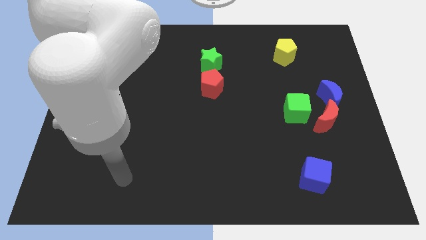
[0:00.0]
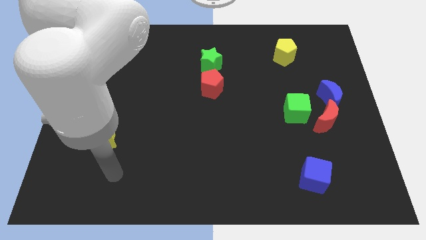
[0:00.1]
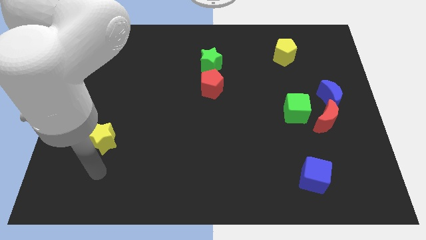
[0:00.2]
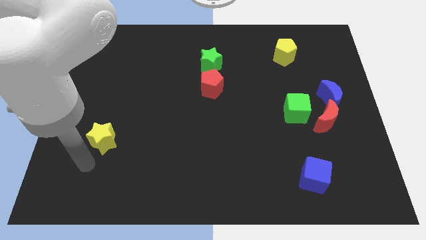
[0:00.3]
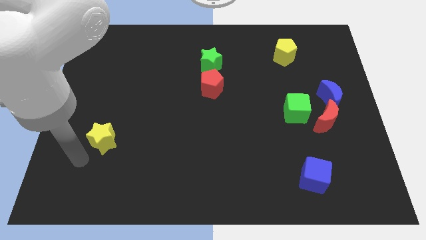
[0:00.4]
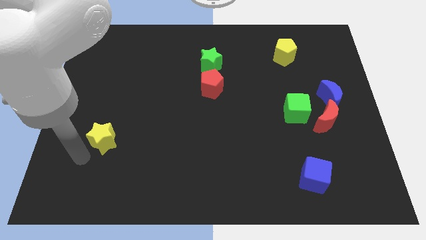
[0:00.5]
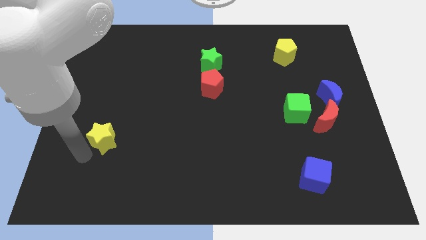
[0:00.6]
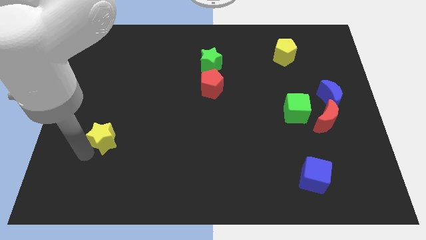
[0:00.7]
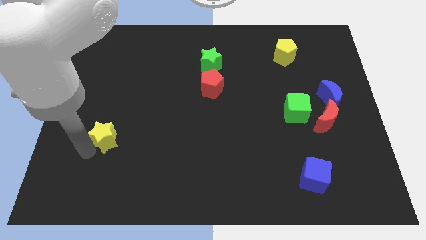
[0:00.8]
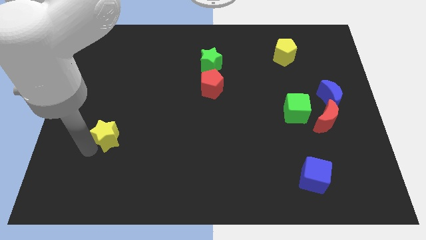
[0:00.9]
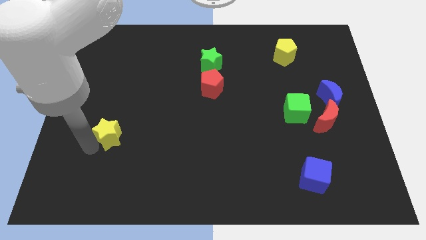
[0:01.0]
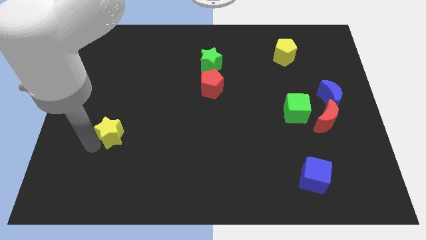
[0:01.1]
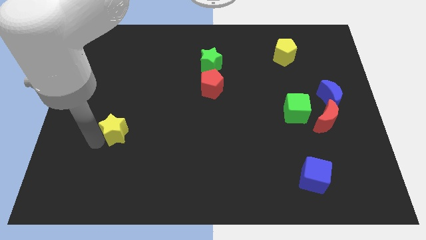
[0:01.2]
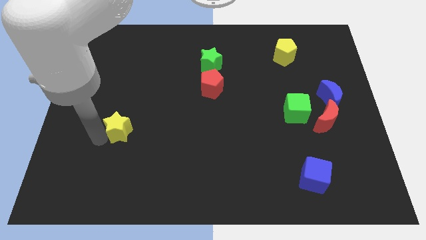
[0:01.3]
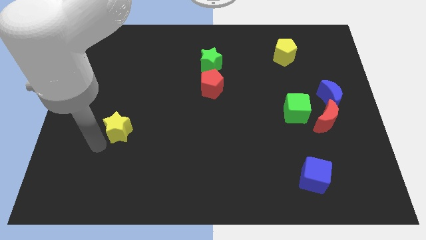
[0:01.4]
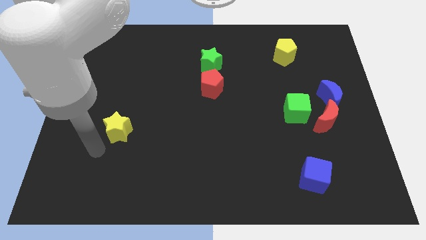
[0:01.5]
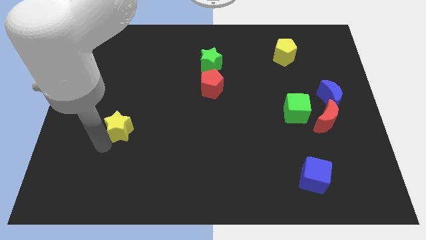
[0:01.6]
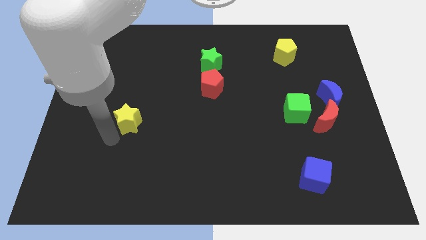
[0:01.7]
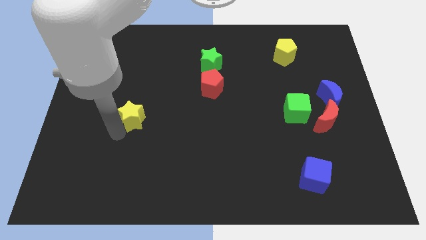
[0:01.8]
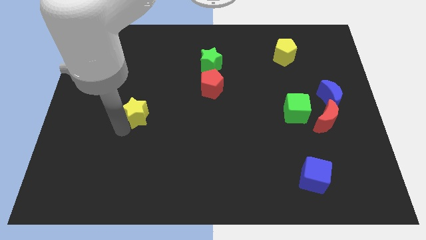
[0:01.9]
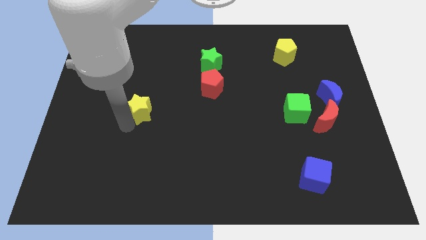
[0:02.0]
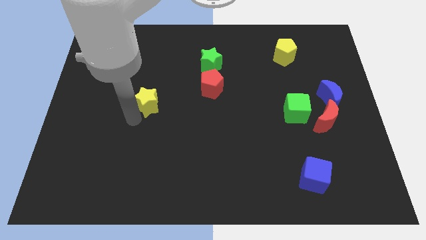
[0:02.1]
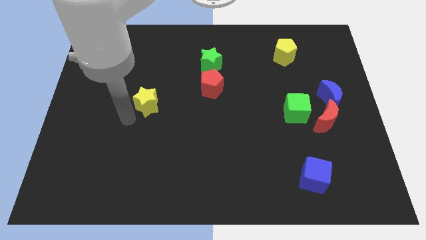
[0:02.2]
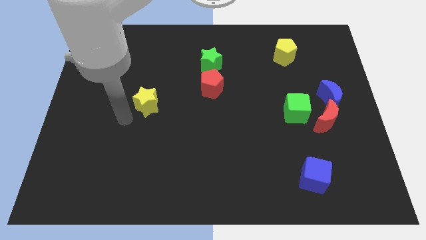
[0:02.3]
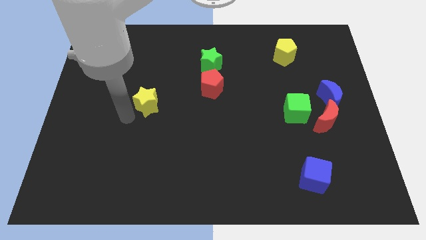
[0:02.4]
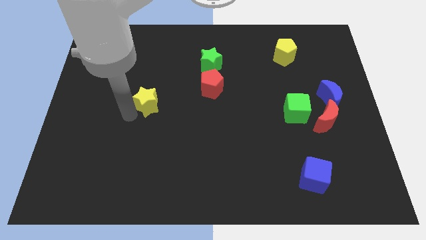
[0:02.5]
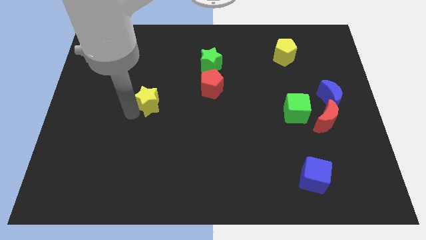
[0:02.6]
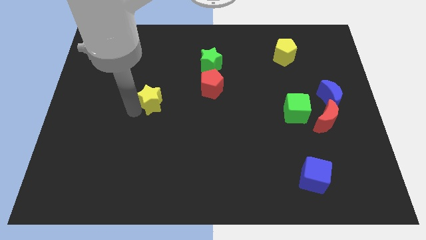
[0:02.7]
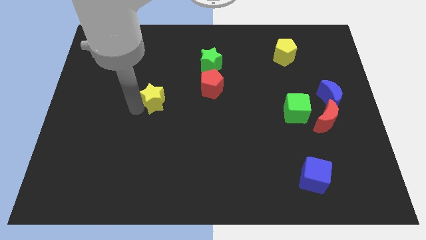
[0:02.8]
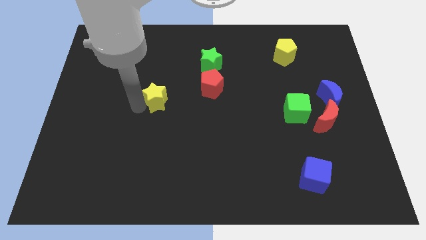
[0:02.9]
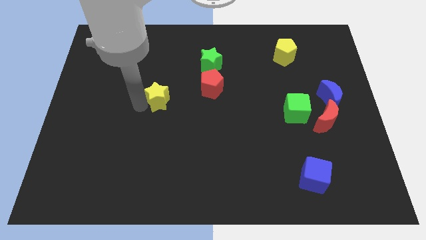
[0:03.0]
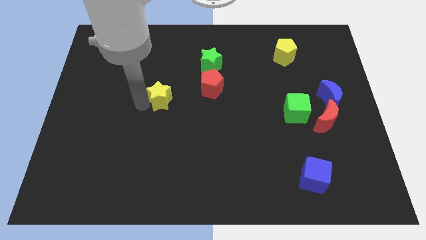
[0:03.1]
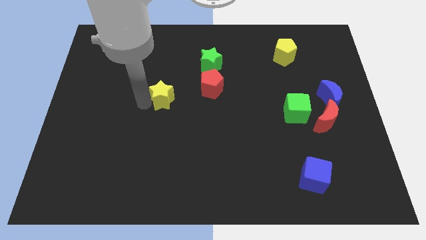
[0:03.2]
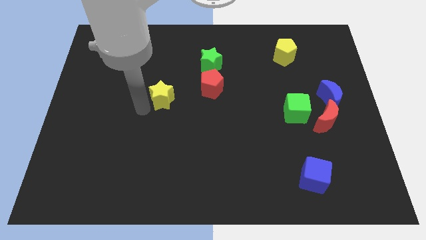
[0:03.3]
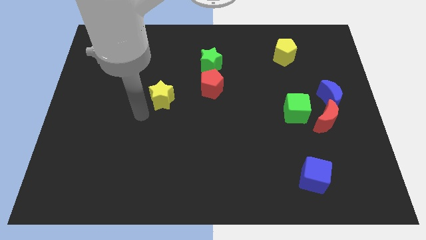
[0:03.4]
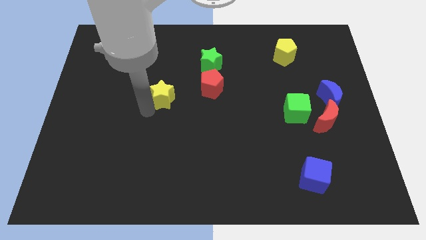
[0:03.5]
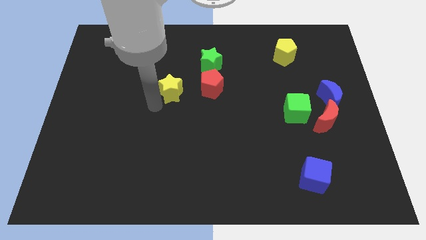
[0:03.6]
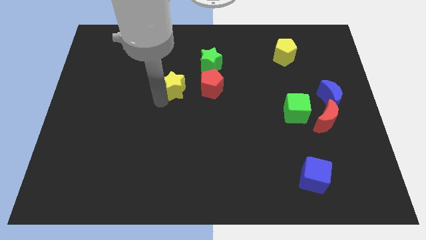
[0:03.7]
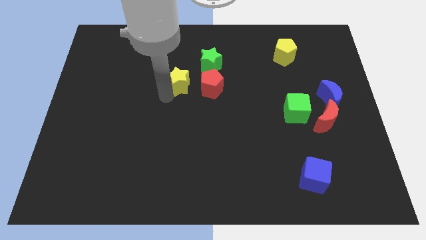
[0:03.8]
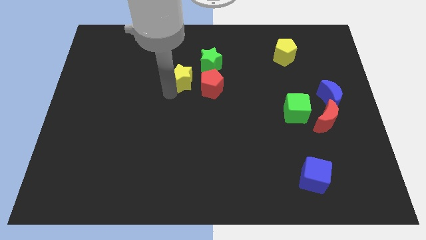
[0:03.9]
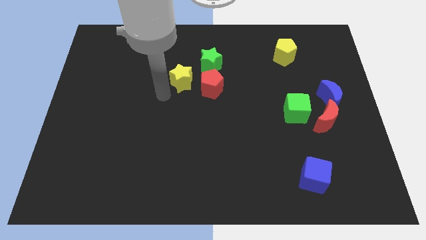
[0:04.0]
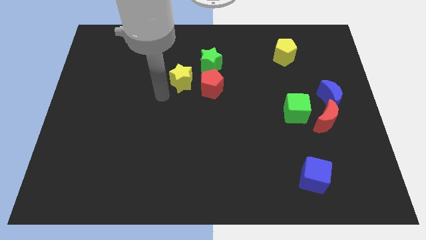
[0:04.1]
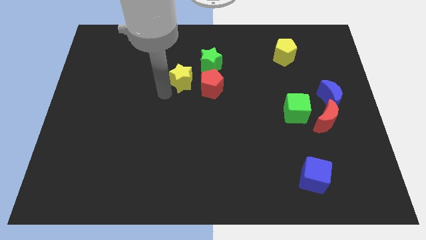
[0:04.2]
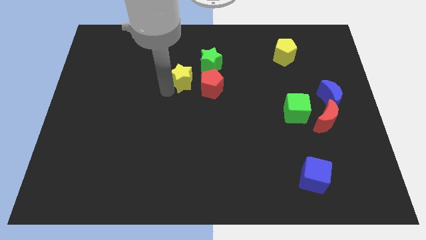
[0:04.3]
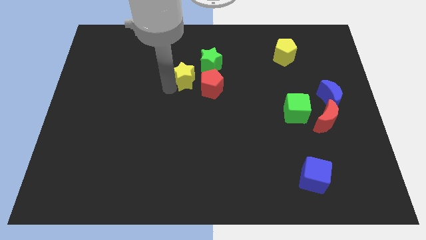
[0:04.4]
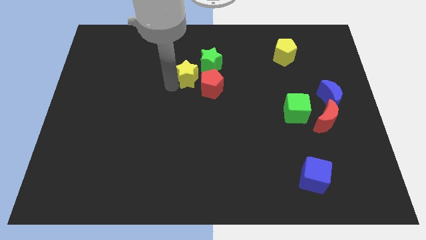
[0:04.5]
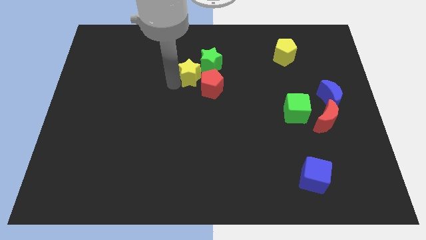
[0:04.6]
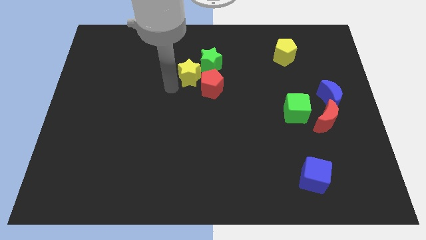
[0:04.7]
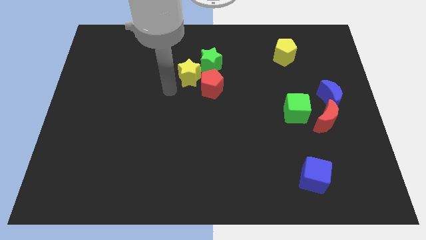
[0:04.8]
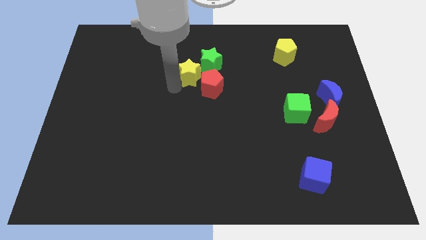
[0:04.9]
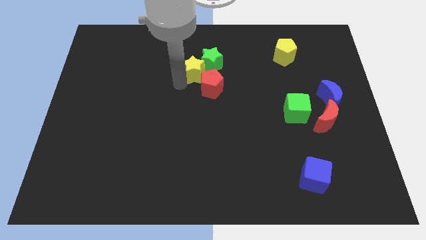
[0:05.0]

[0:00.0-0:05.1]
slide the yellow star next to the green star

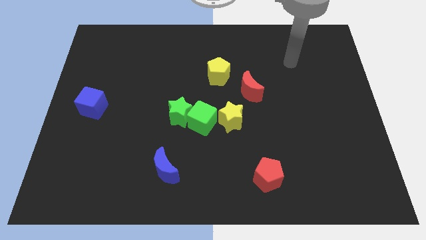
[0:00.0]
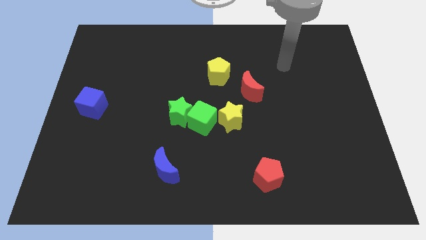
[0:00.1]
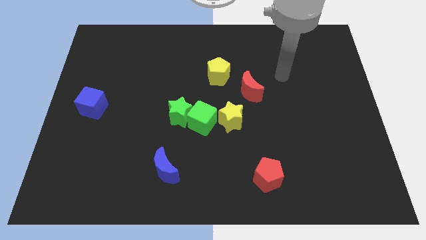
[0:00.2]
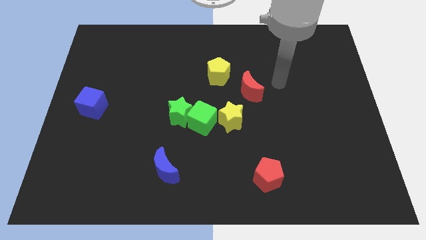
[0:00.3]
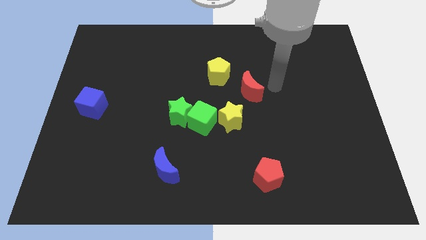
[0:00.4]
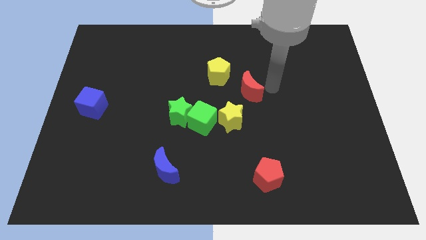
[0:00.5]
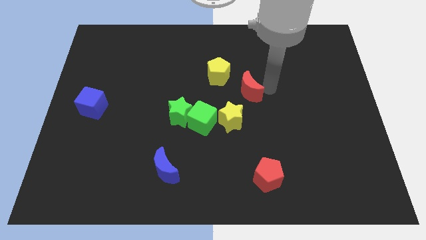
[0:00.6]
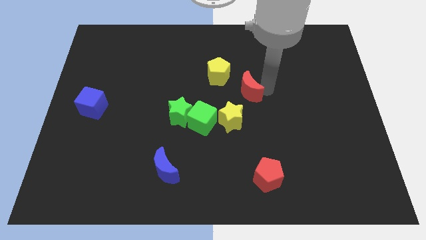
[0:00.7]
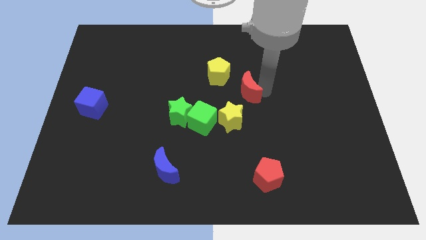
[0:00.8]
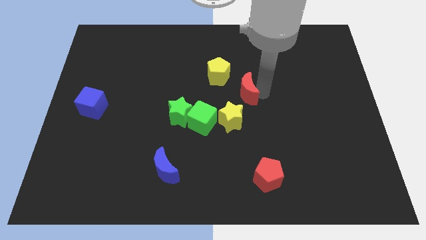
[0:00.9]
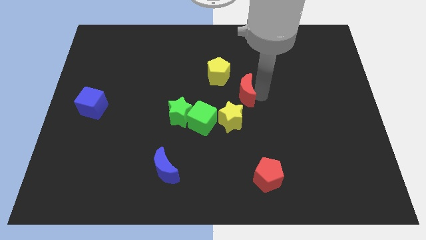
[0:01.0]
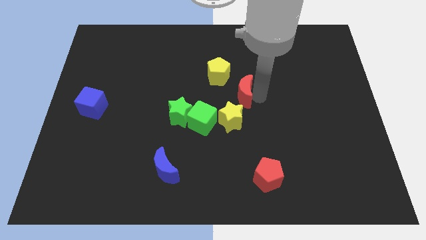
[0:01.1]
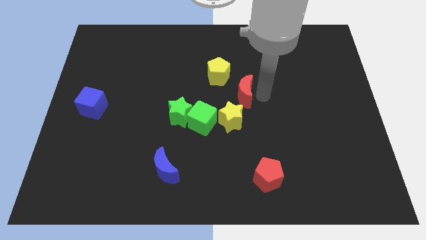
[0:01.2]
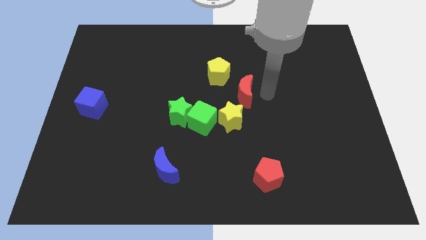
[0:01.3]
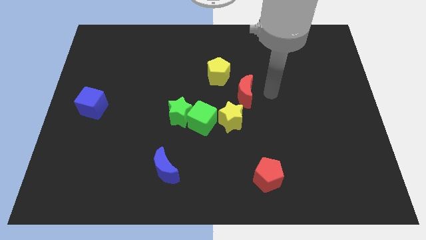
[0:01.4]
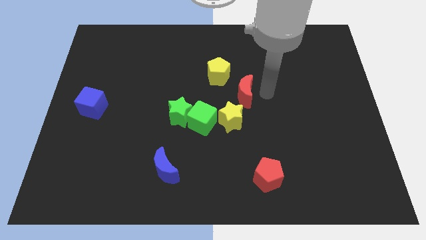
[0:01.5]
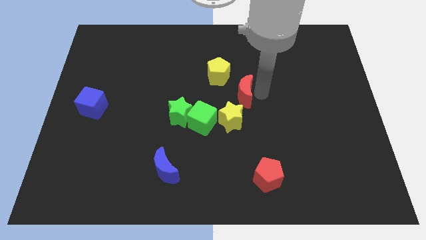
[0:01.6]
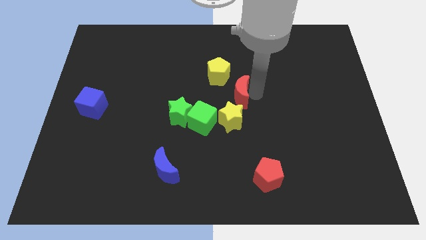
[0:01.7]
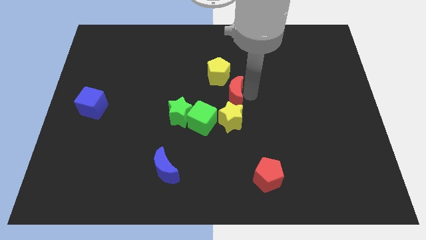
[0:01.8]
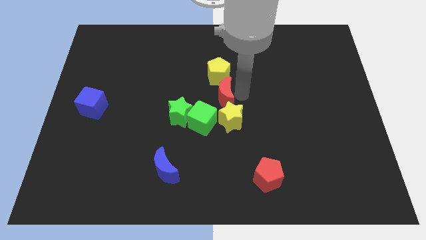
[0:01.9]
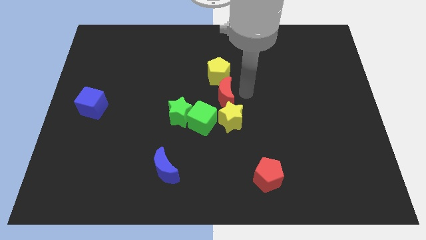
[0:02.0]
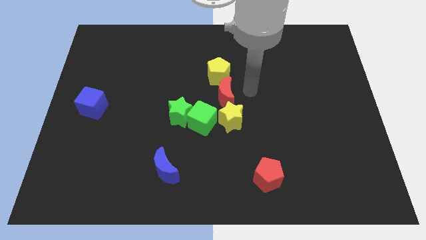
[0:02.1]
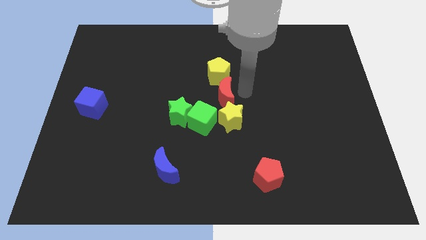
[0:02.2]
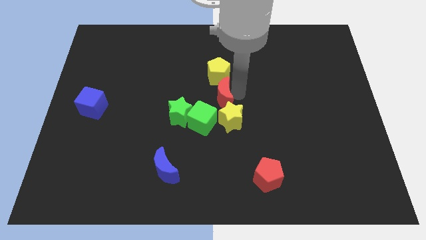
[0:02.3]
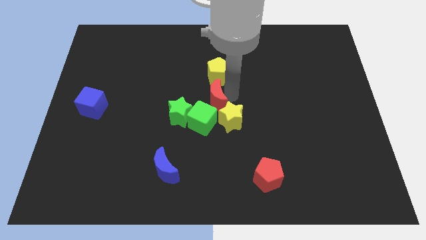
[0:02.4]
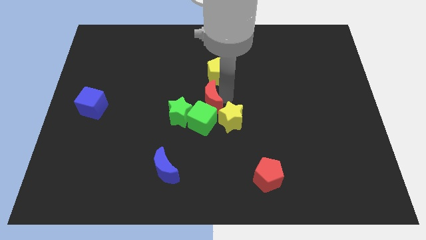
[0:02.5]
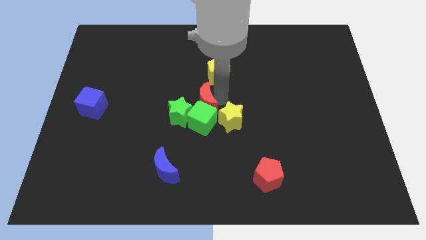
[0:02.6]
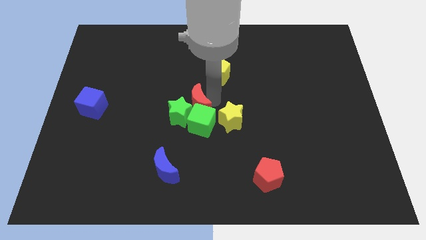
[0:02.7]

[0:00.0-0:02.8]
put the red moon next to the green star
